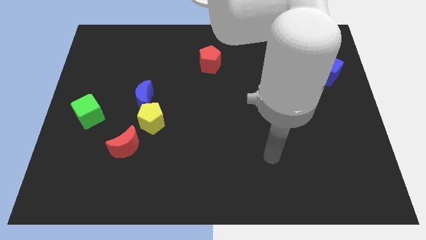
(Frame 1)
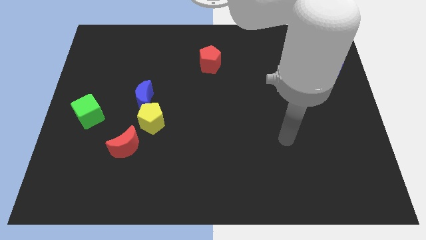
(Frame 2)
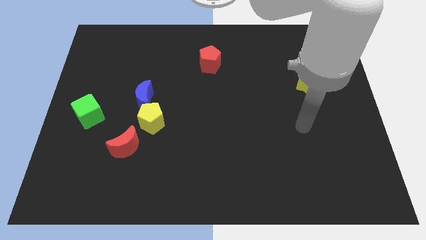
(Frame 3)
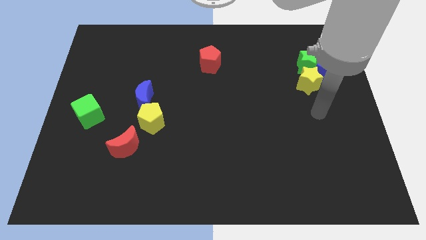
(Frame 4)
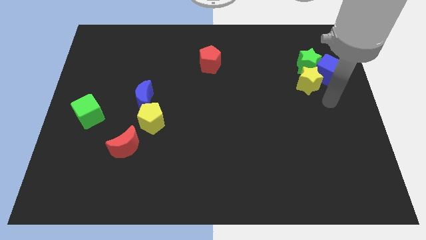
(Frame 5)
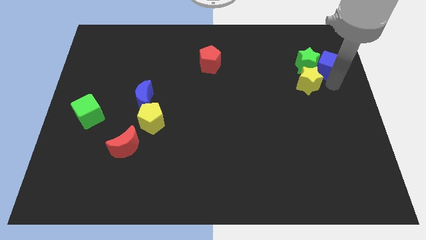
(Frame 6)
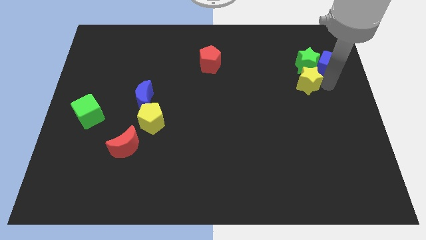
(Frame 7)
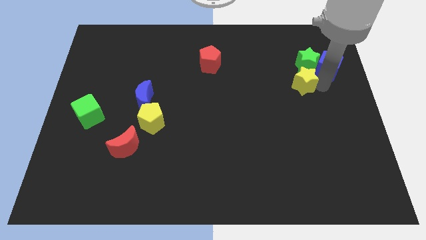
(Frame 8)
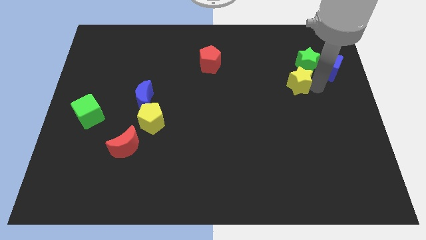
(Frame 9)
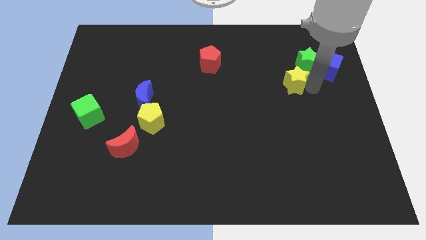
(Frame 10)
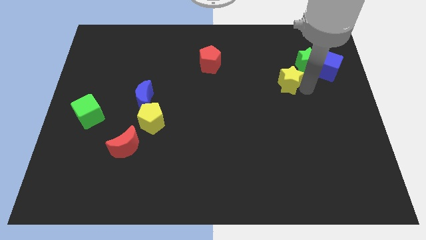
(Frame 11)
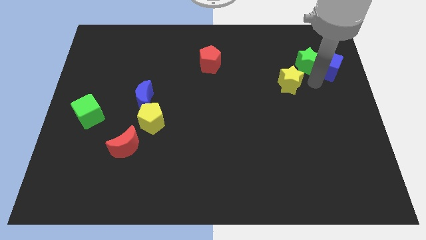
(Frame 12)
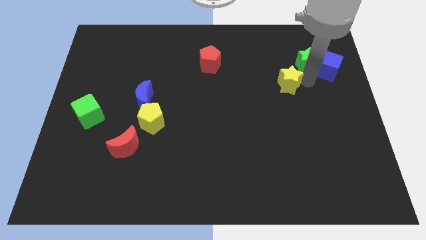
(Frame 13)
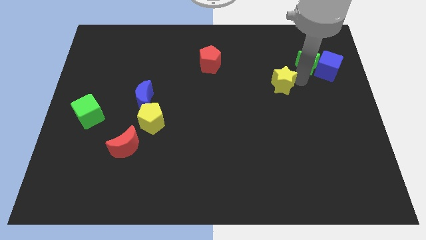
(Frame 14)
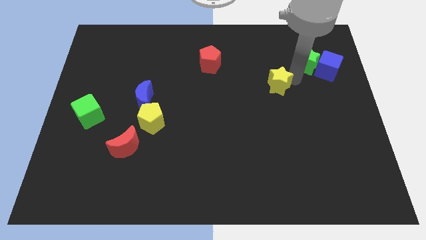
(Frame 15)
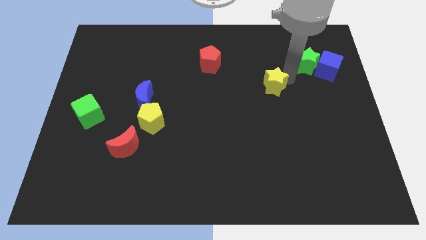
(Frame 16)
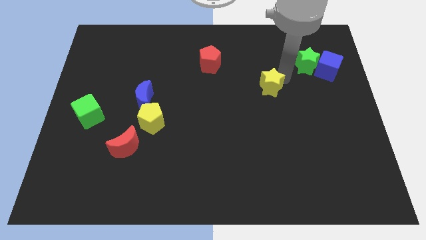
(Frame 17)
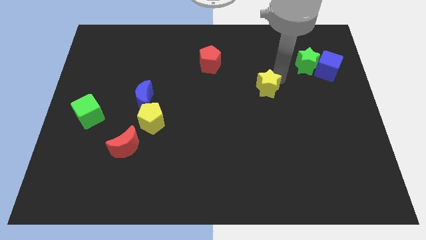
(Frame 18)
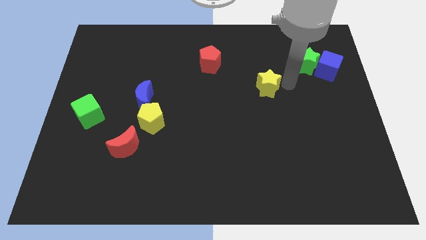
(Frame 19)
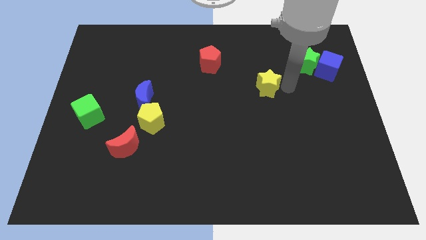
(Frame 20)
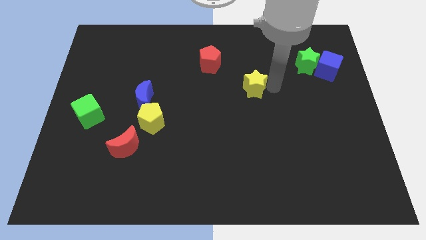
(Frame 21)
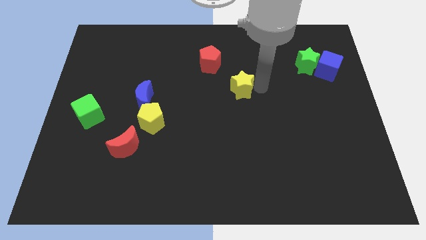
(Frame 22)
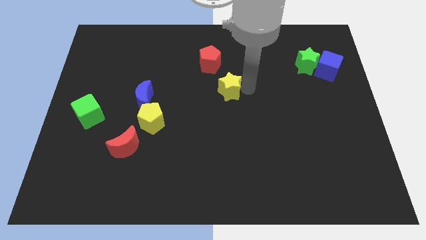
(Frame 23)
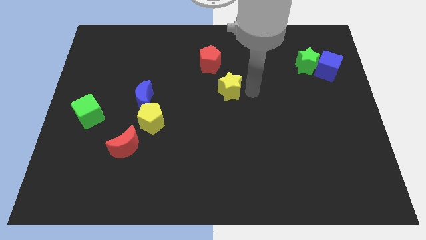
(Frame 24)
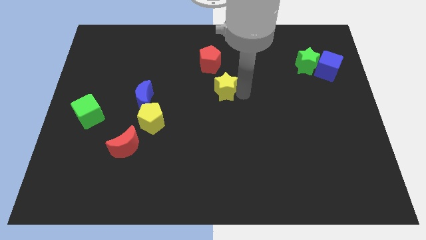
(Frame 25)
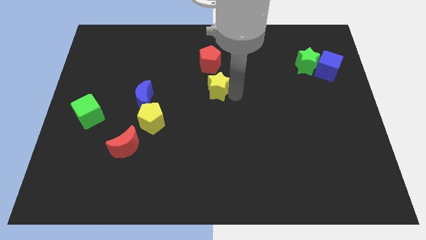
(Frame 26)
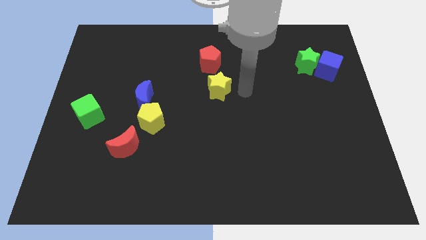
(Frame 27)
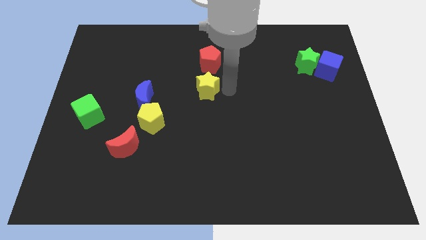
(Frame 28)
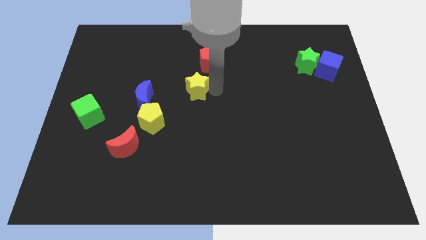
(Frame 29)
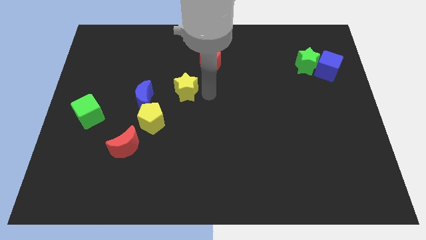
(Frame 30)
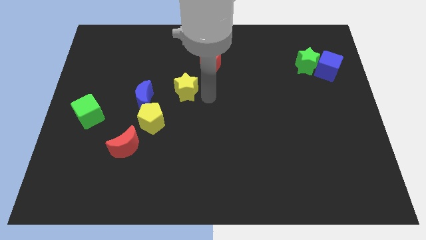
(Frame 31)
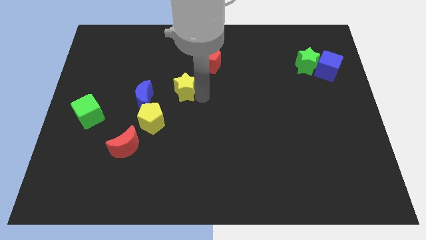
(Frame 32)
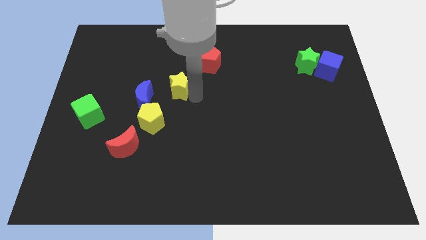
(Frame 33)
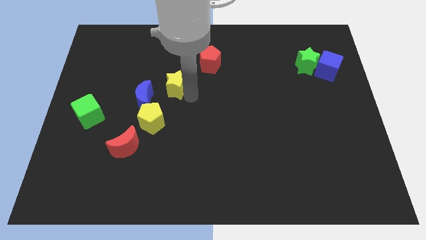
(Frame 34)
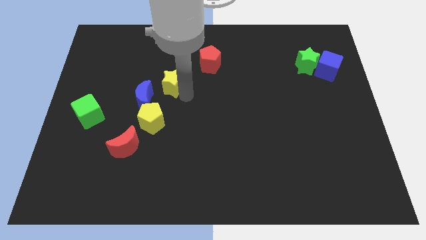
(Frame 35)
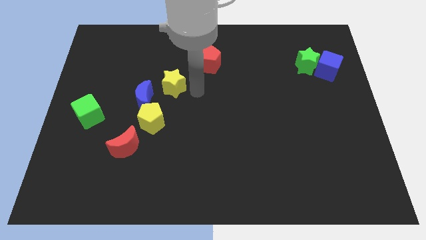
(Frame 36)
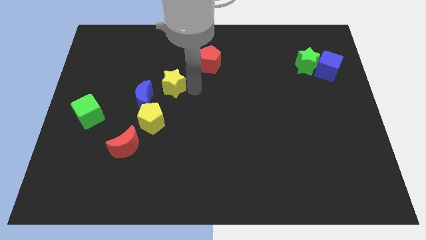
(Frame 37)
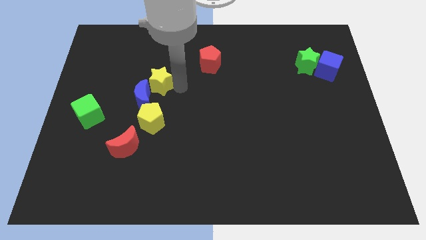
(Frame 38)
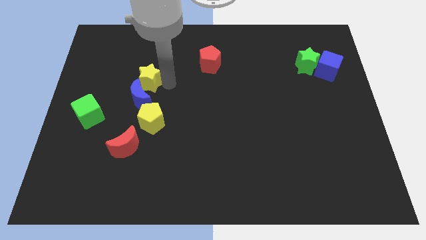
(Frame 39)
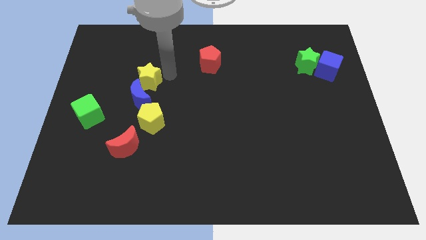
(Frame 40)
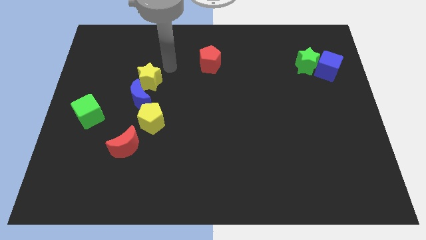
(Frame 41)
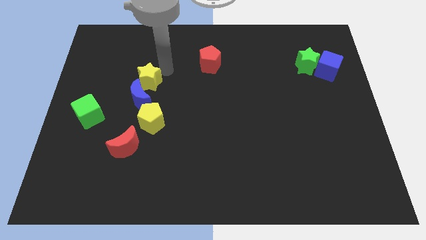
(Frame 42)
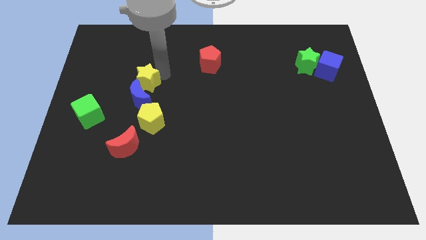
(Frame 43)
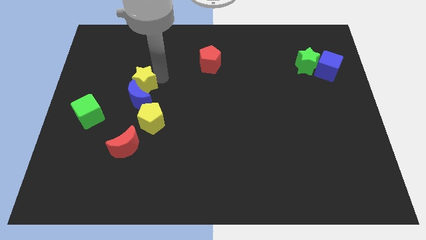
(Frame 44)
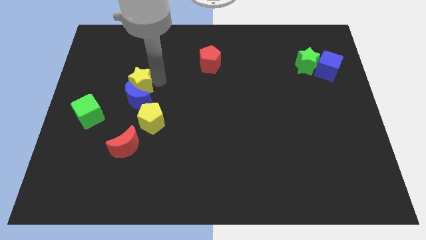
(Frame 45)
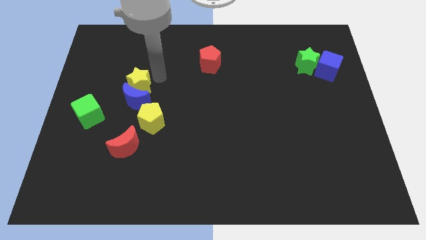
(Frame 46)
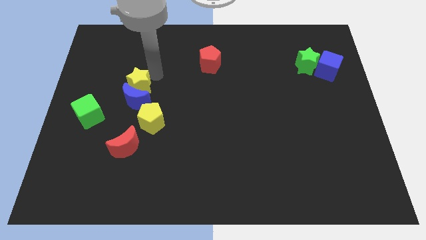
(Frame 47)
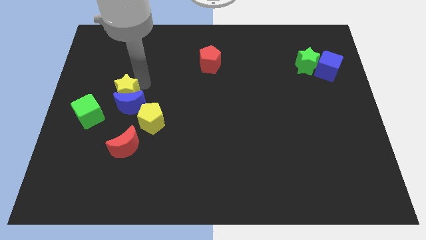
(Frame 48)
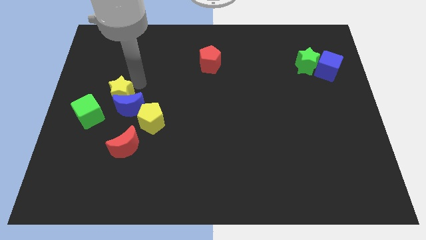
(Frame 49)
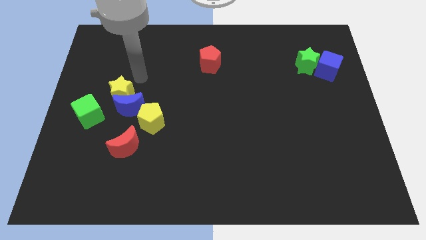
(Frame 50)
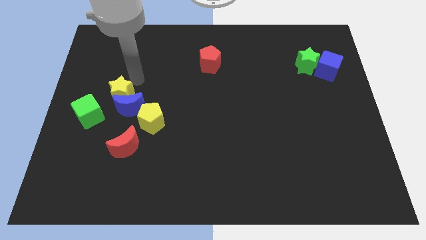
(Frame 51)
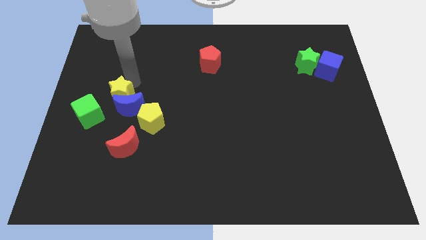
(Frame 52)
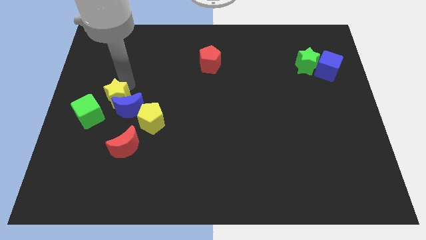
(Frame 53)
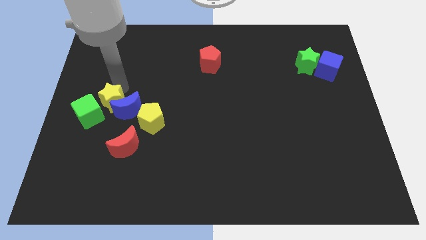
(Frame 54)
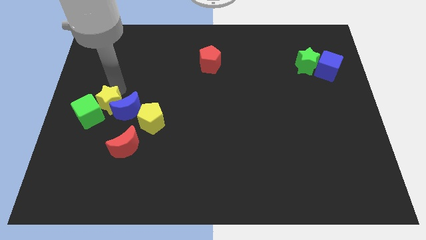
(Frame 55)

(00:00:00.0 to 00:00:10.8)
push the yellow star towards the green cube

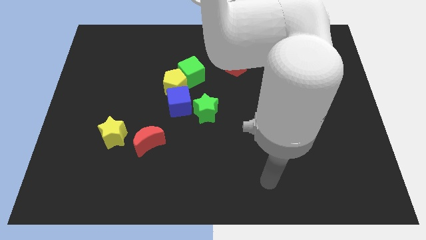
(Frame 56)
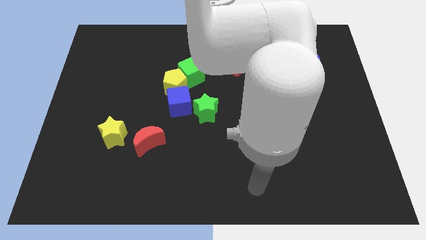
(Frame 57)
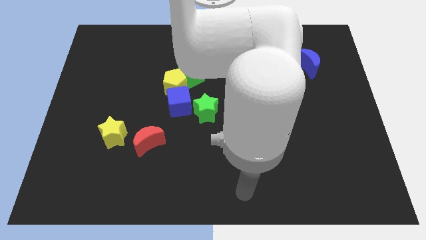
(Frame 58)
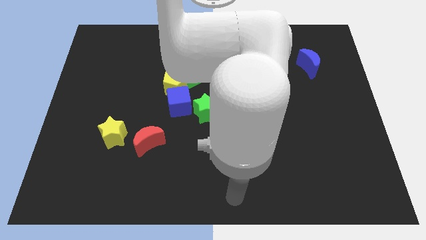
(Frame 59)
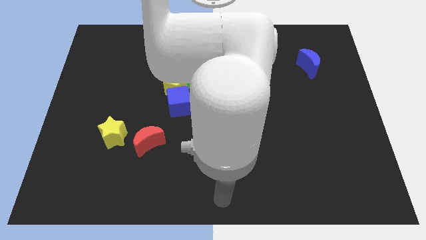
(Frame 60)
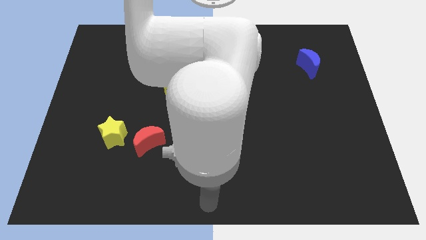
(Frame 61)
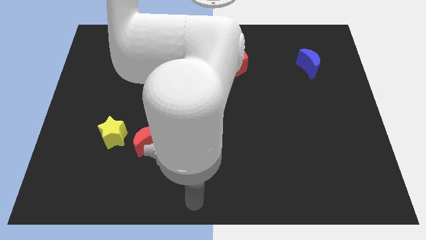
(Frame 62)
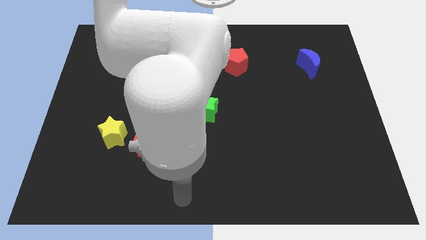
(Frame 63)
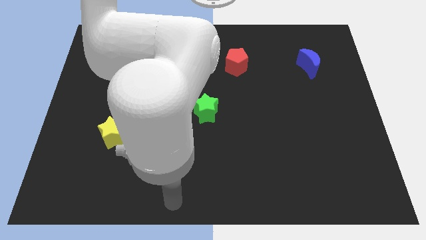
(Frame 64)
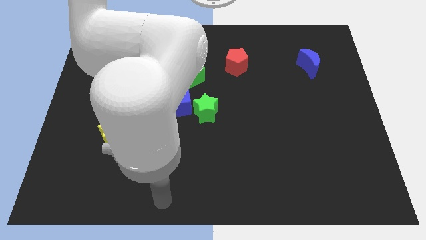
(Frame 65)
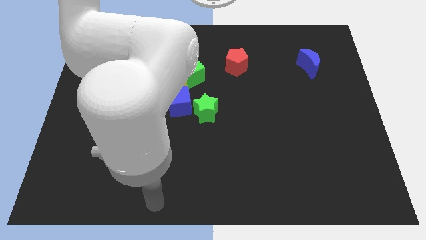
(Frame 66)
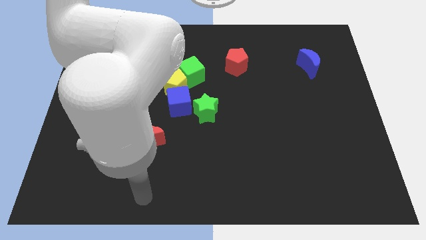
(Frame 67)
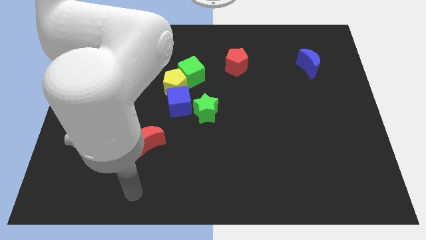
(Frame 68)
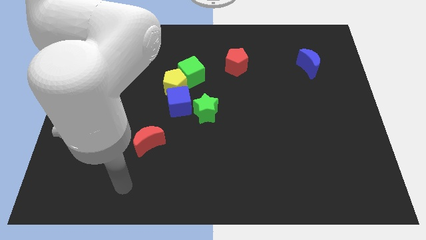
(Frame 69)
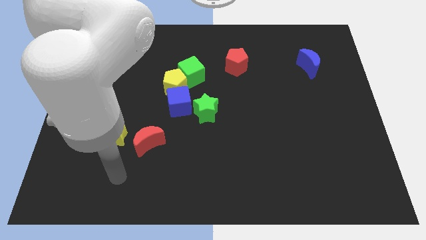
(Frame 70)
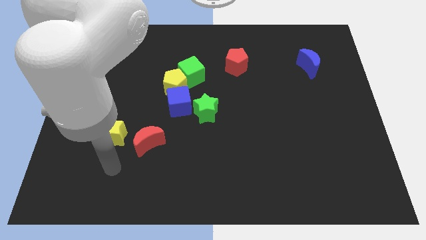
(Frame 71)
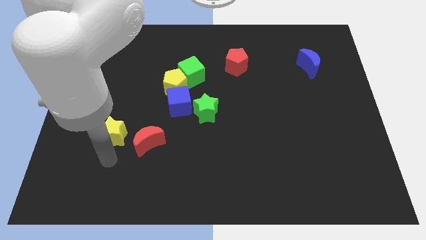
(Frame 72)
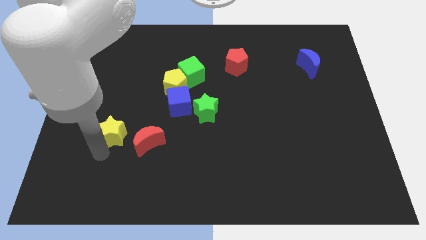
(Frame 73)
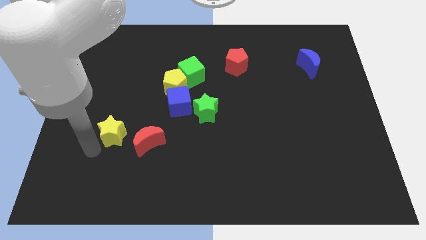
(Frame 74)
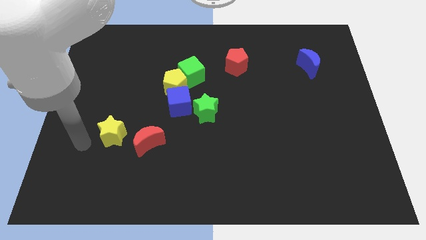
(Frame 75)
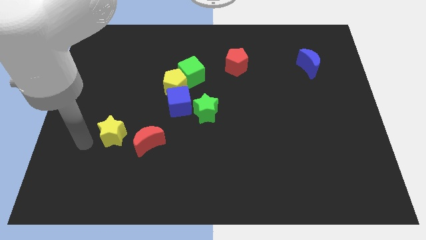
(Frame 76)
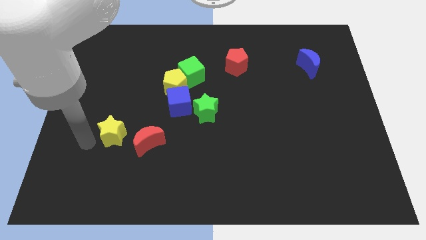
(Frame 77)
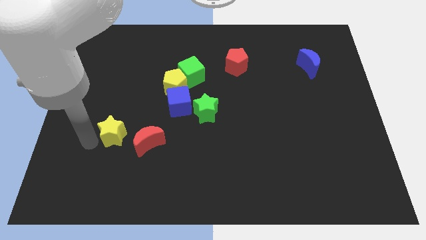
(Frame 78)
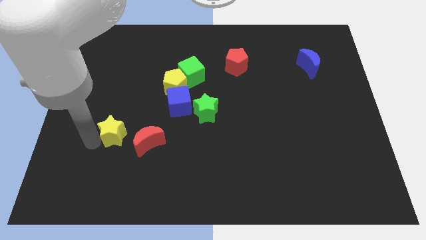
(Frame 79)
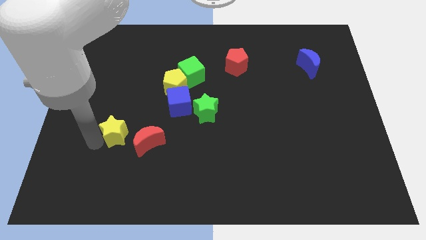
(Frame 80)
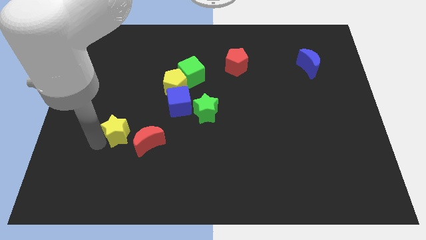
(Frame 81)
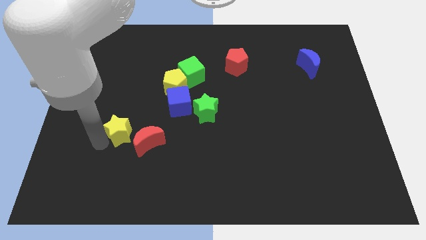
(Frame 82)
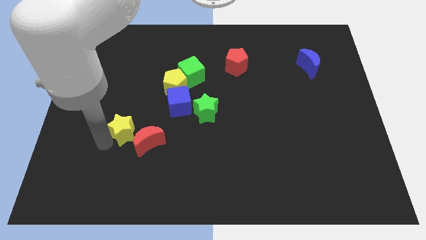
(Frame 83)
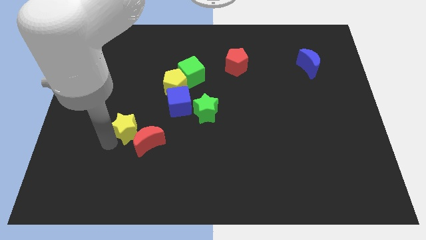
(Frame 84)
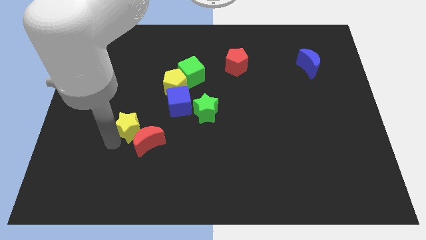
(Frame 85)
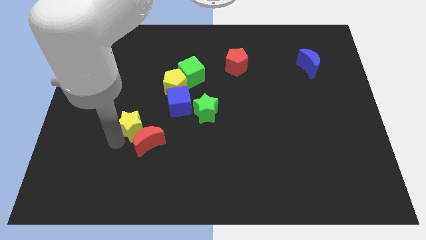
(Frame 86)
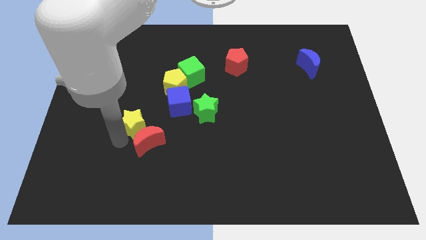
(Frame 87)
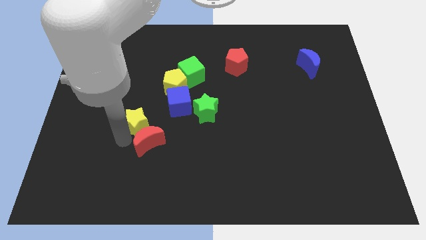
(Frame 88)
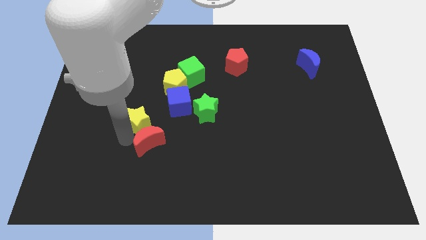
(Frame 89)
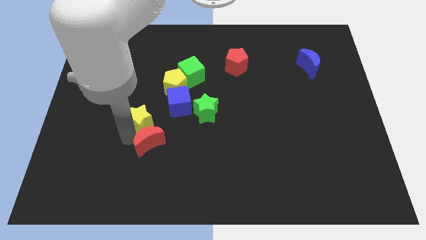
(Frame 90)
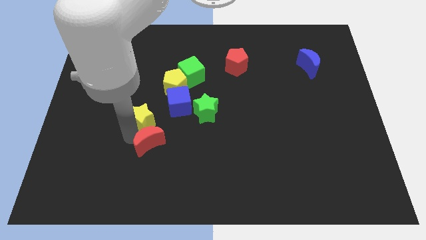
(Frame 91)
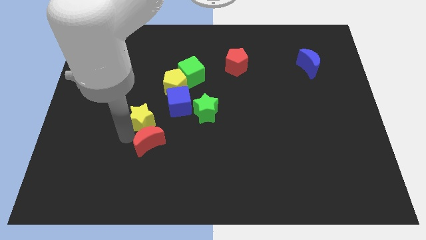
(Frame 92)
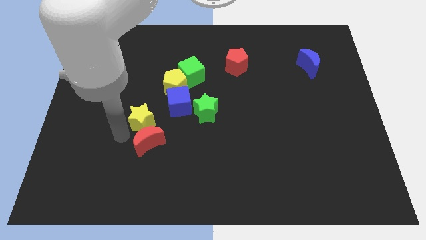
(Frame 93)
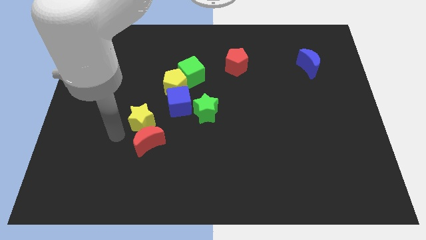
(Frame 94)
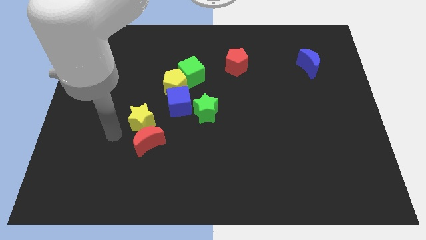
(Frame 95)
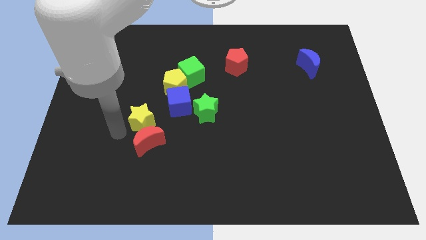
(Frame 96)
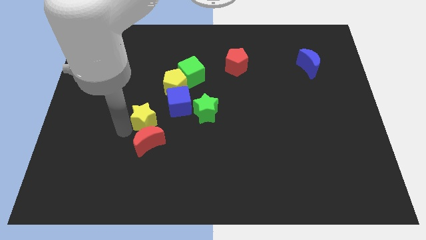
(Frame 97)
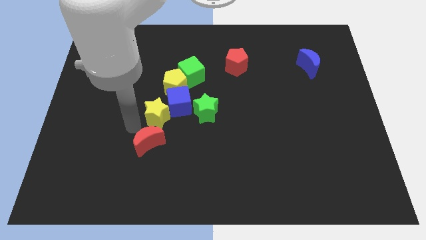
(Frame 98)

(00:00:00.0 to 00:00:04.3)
move the yellow star towards the blue cube
